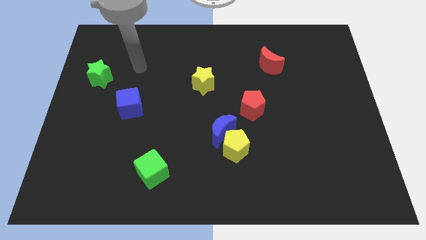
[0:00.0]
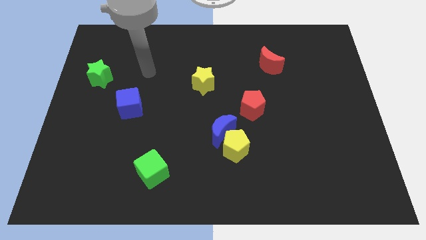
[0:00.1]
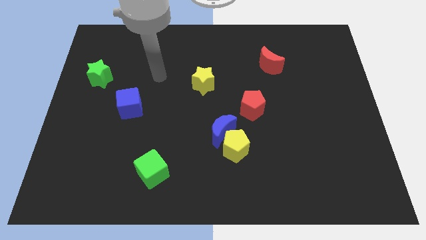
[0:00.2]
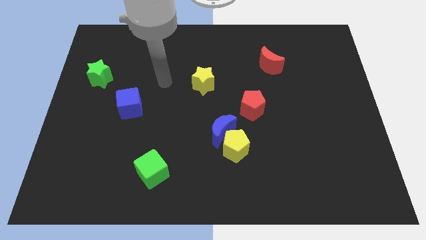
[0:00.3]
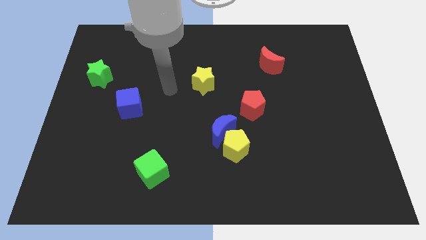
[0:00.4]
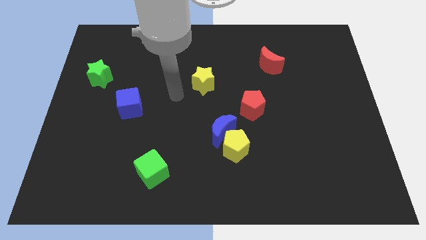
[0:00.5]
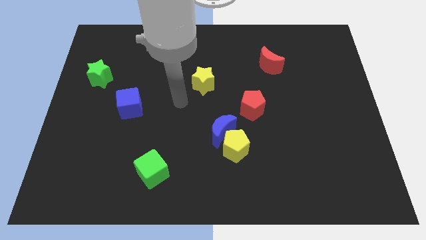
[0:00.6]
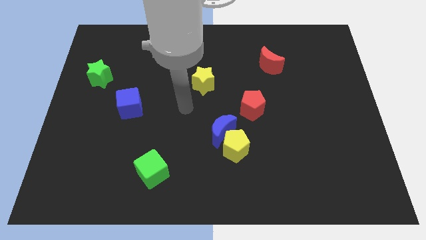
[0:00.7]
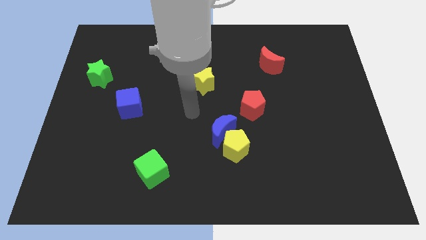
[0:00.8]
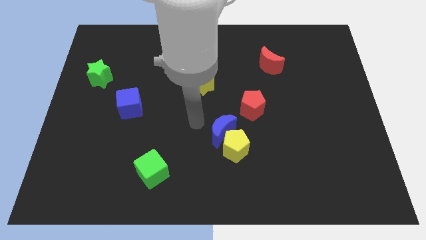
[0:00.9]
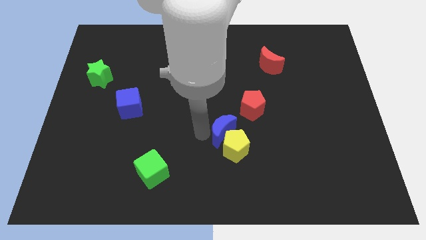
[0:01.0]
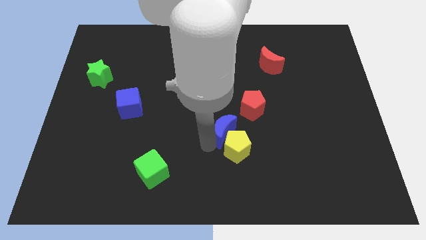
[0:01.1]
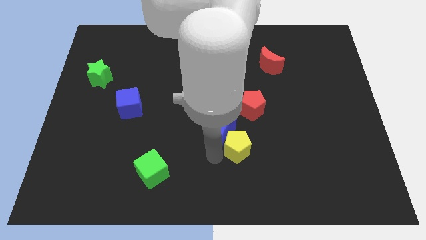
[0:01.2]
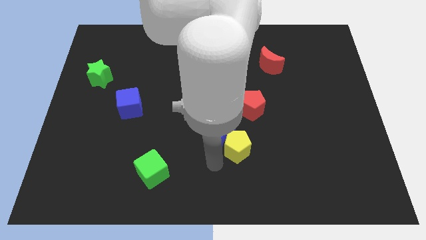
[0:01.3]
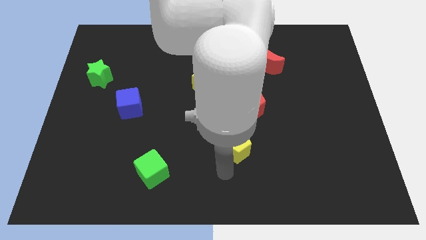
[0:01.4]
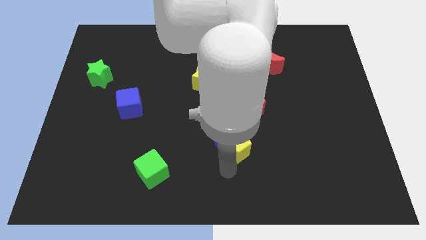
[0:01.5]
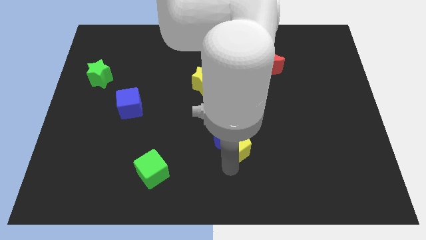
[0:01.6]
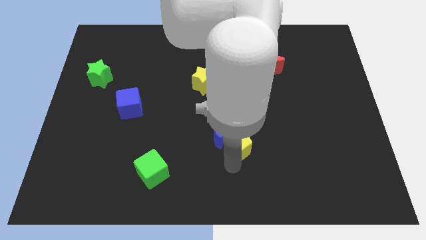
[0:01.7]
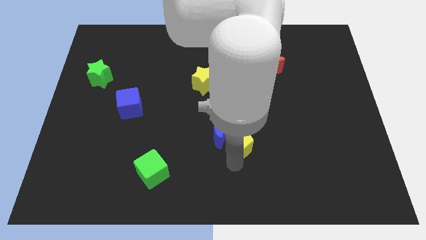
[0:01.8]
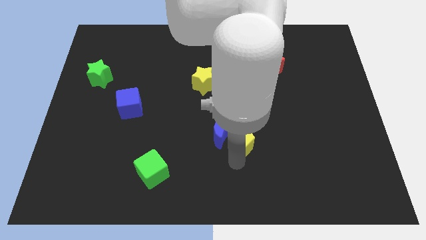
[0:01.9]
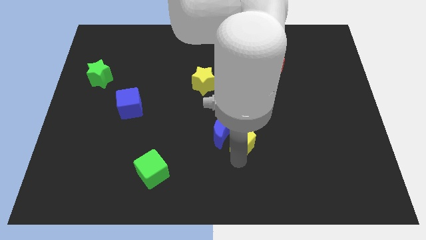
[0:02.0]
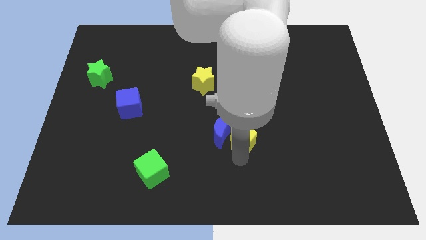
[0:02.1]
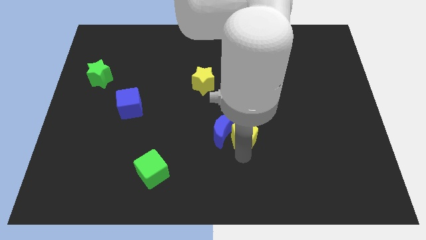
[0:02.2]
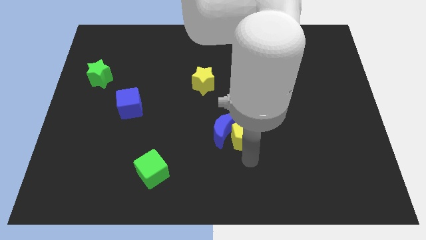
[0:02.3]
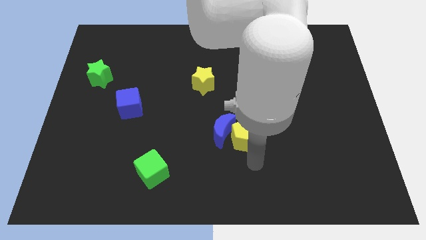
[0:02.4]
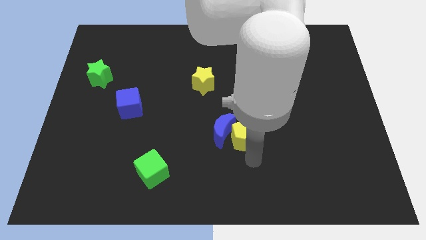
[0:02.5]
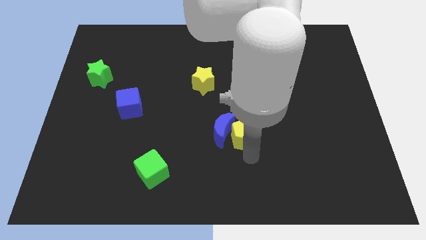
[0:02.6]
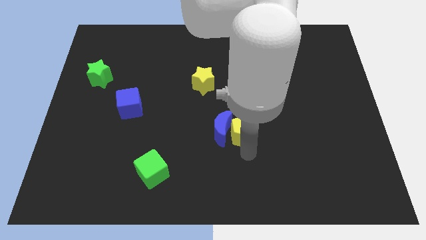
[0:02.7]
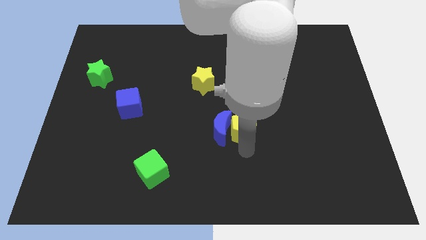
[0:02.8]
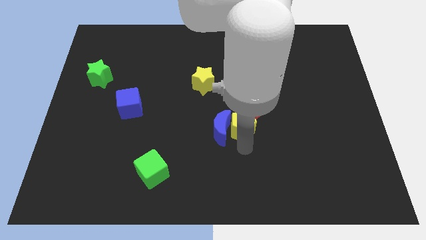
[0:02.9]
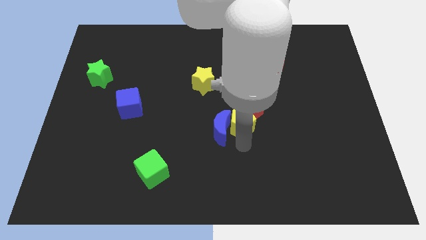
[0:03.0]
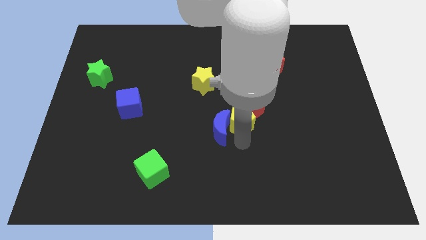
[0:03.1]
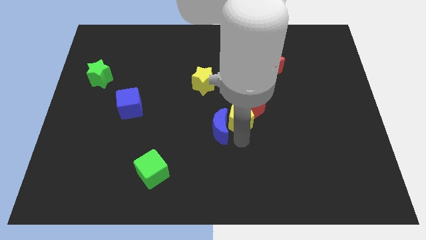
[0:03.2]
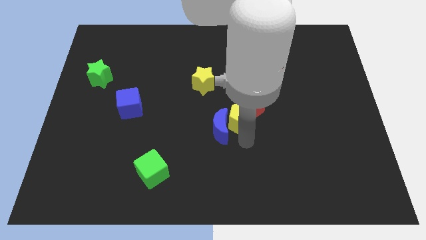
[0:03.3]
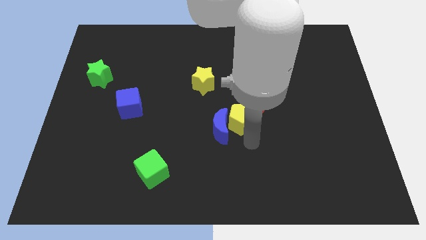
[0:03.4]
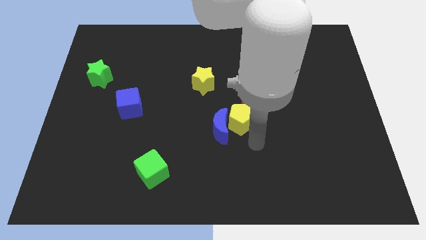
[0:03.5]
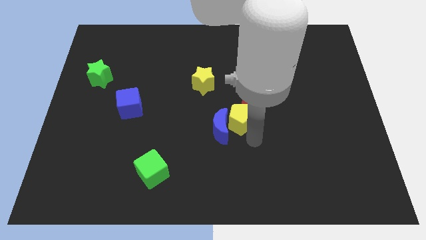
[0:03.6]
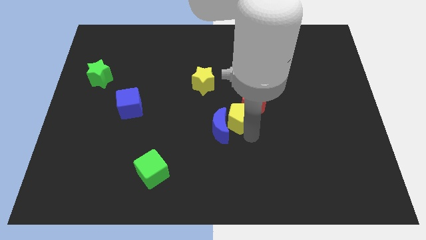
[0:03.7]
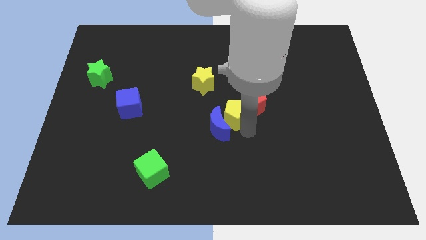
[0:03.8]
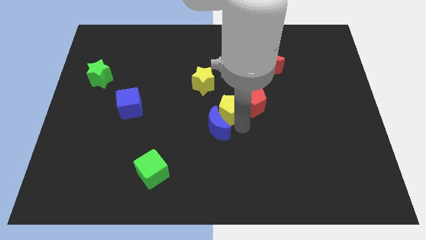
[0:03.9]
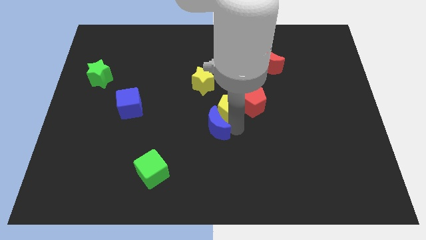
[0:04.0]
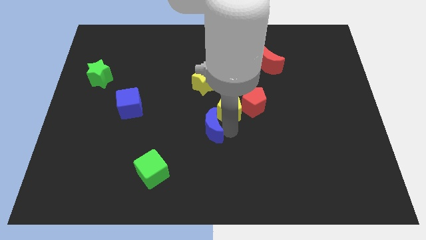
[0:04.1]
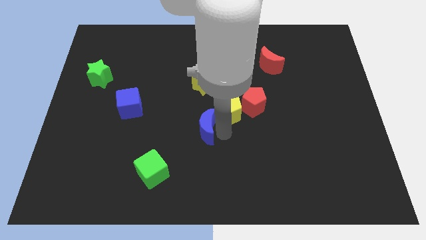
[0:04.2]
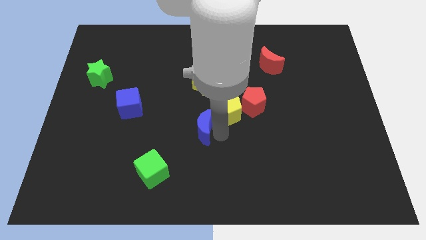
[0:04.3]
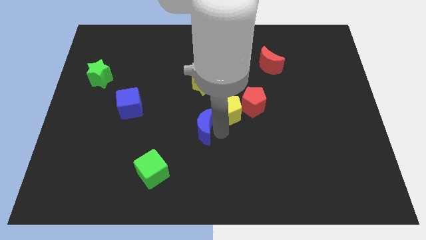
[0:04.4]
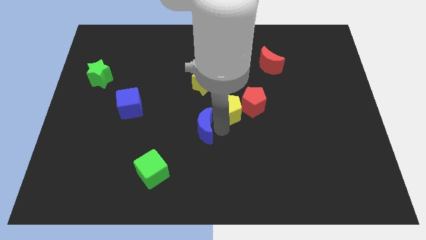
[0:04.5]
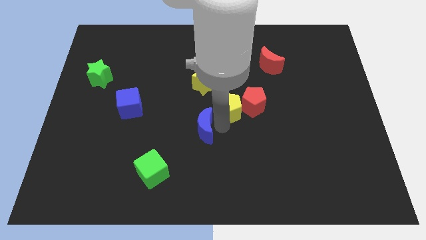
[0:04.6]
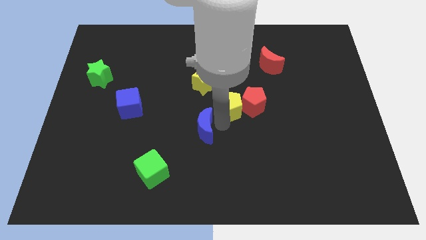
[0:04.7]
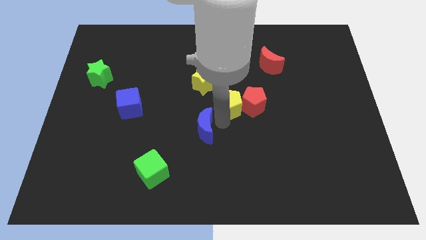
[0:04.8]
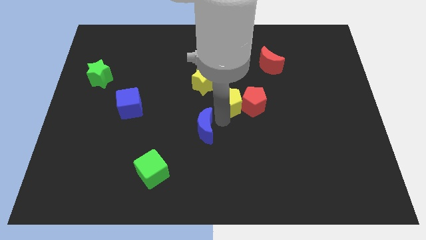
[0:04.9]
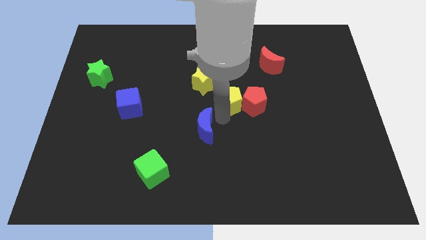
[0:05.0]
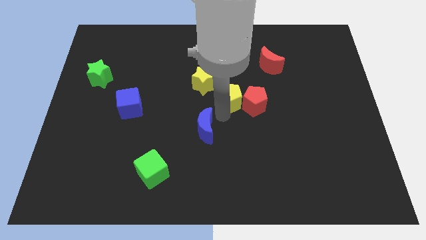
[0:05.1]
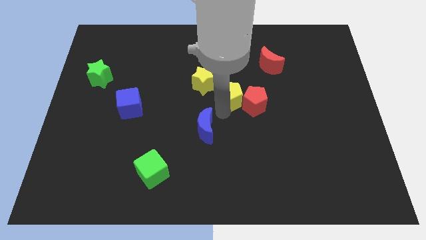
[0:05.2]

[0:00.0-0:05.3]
put the yellow pentagon to the right side of the yellow star

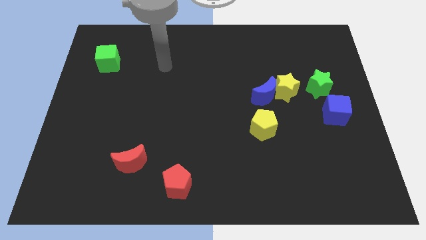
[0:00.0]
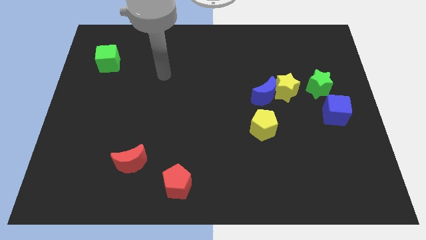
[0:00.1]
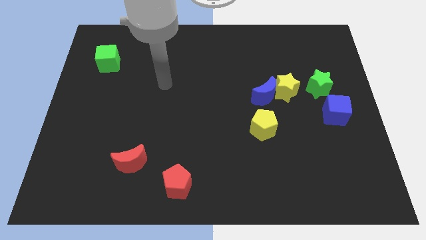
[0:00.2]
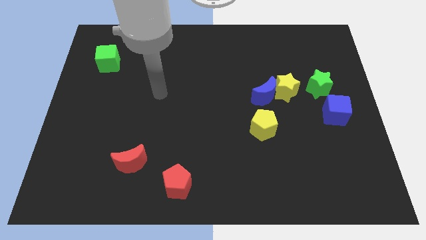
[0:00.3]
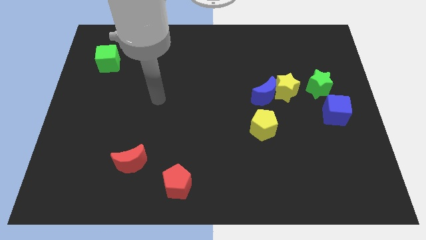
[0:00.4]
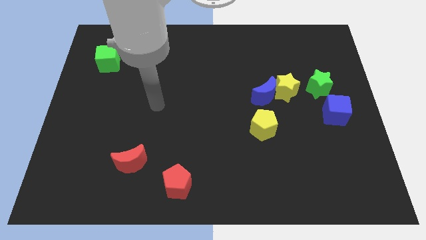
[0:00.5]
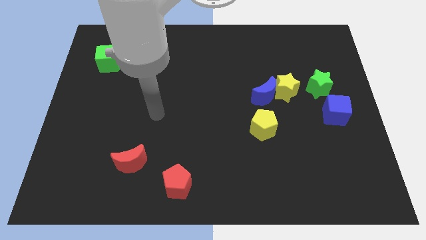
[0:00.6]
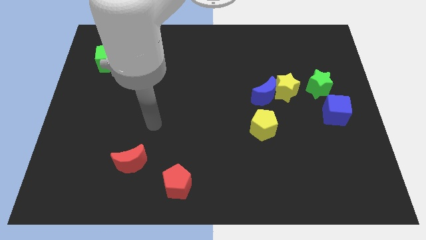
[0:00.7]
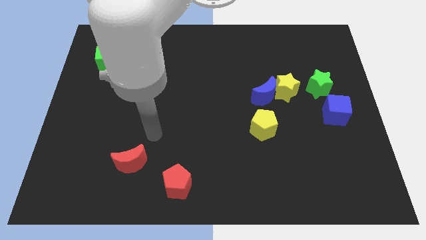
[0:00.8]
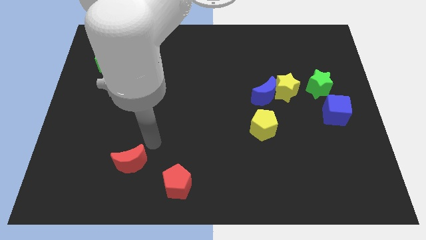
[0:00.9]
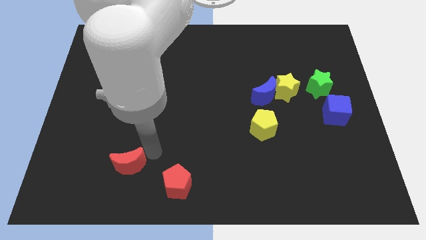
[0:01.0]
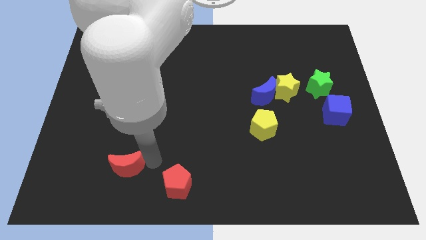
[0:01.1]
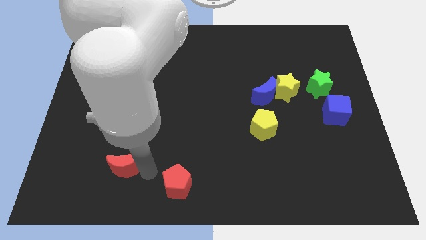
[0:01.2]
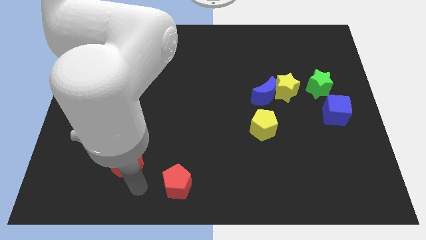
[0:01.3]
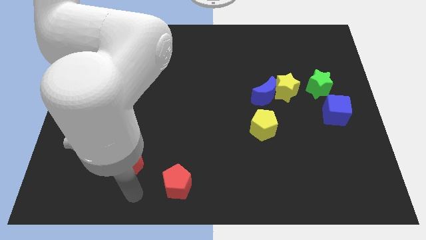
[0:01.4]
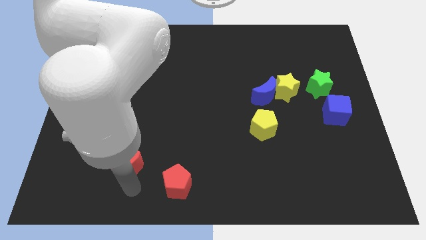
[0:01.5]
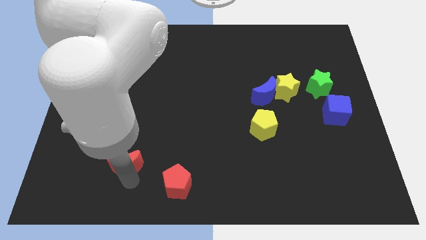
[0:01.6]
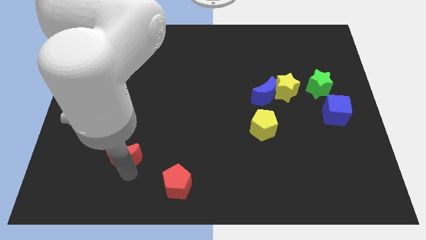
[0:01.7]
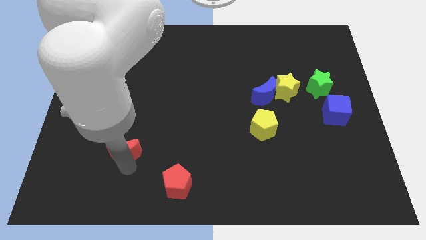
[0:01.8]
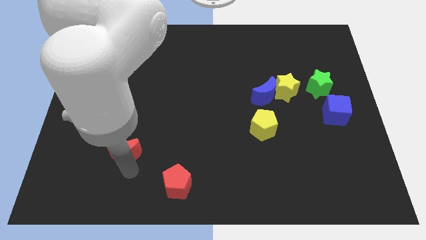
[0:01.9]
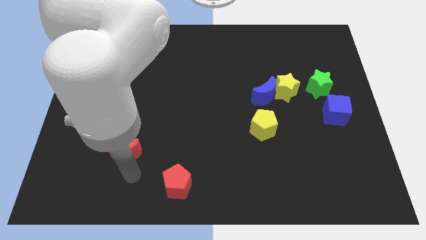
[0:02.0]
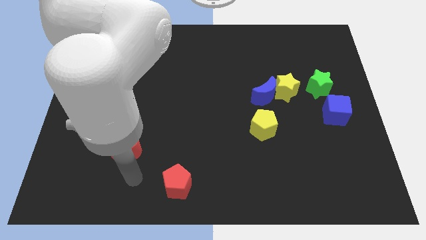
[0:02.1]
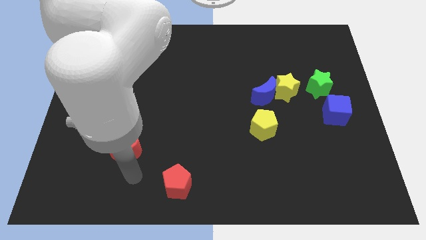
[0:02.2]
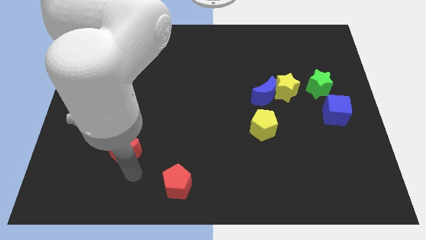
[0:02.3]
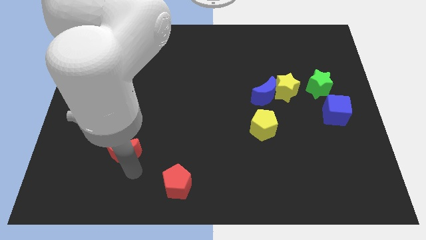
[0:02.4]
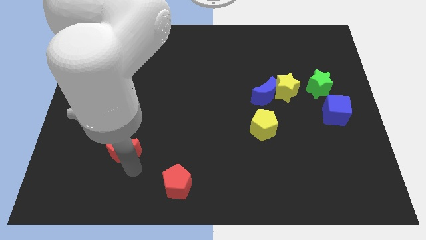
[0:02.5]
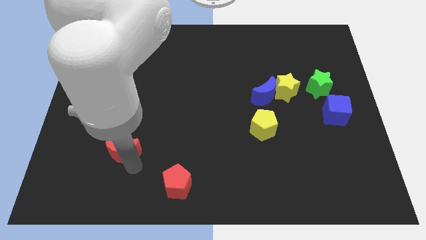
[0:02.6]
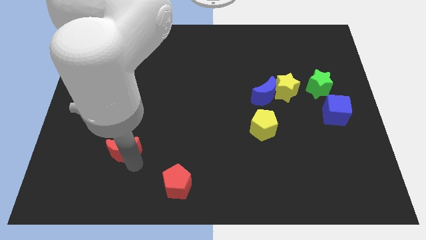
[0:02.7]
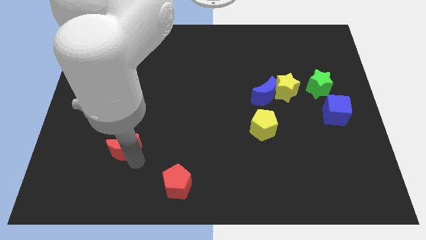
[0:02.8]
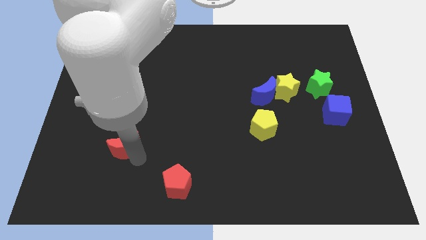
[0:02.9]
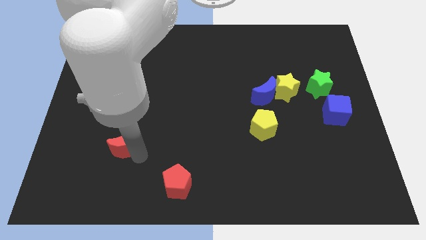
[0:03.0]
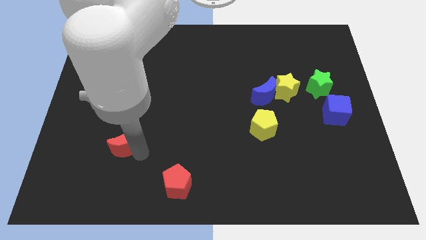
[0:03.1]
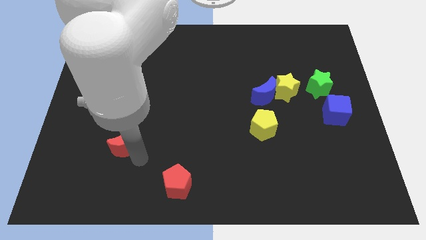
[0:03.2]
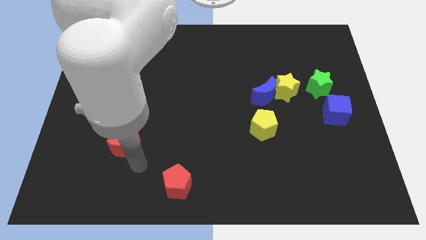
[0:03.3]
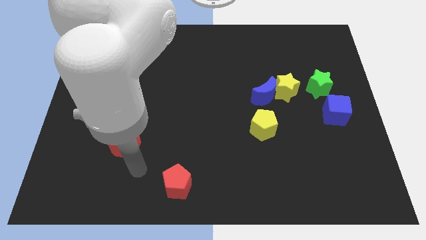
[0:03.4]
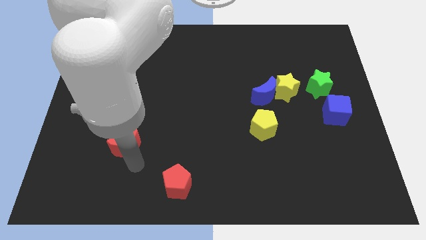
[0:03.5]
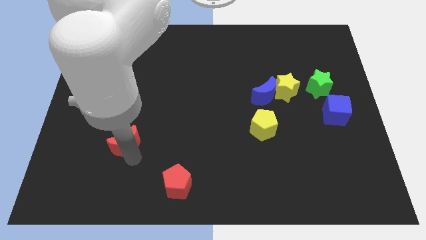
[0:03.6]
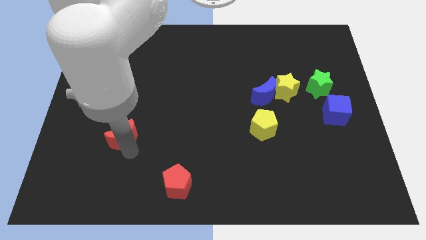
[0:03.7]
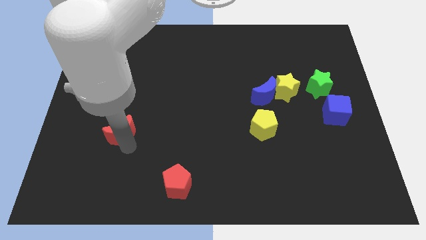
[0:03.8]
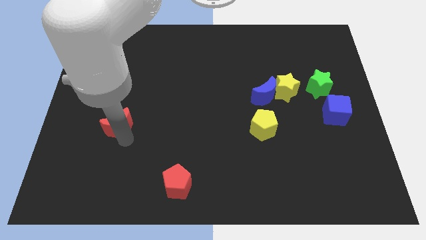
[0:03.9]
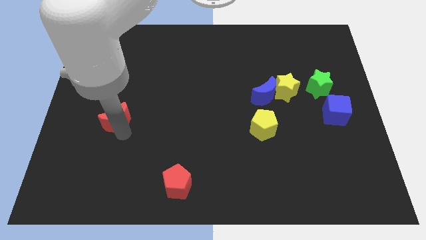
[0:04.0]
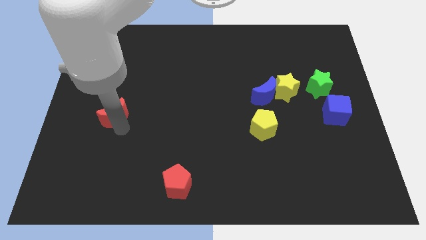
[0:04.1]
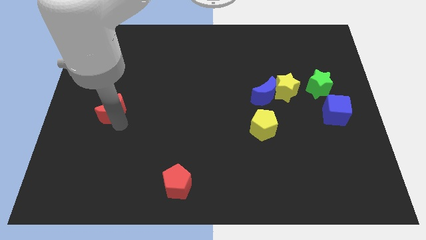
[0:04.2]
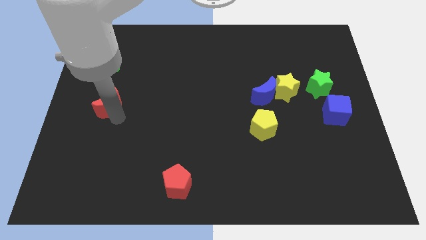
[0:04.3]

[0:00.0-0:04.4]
move the red moon to the bottom of the green cube
